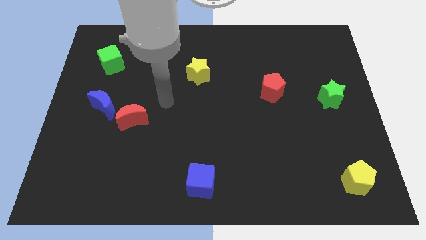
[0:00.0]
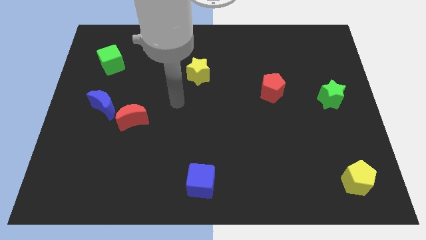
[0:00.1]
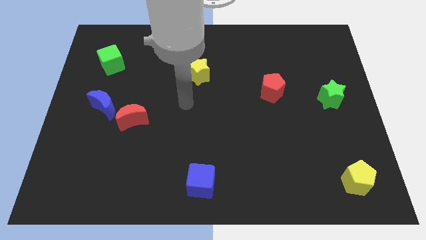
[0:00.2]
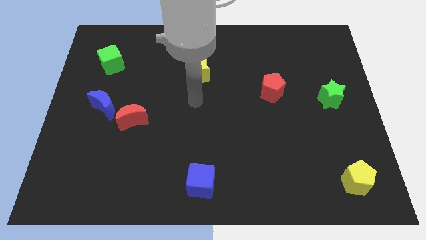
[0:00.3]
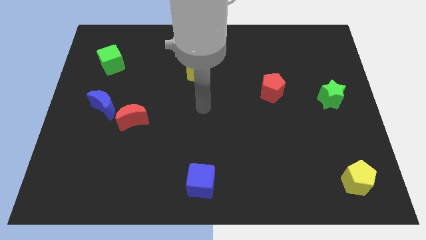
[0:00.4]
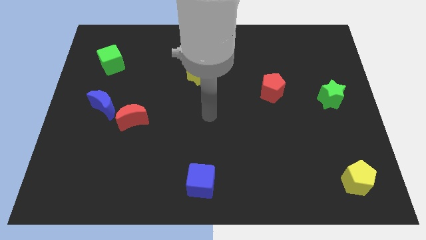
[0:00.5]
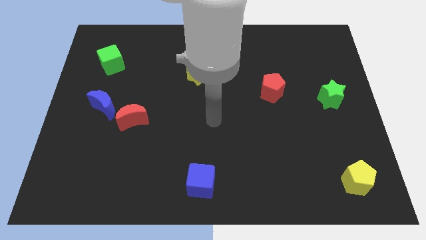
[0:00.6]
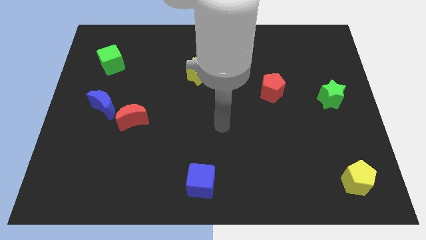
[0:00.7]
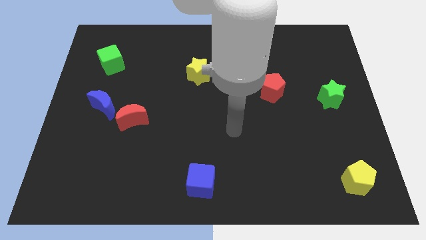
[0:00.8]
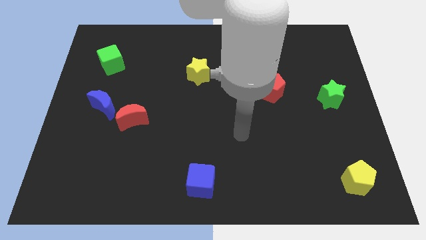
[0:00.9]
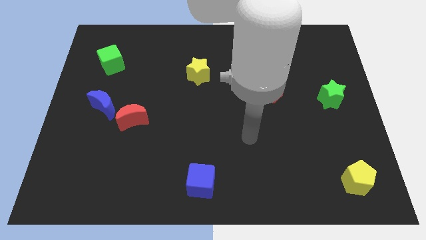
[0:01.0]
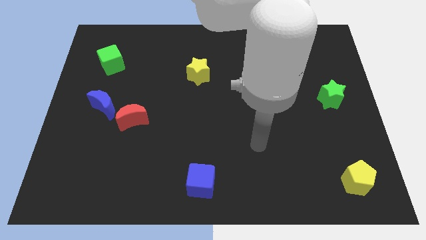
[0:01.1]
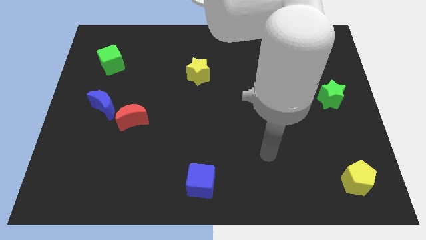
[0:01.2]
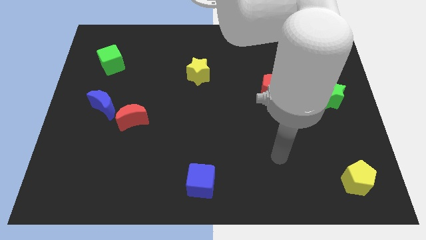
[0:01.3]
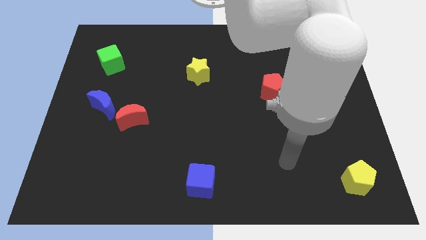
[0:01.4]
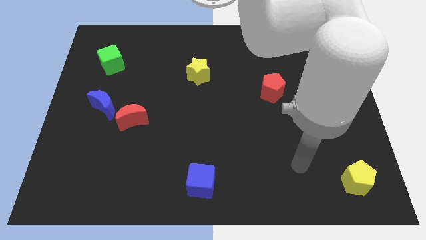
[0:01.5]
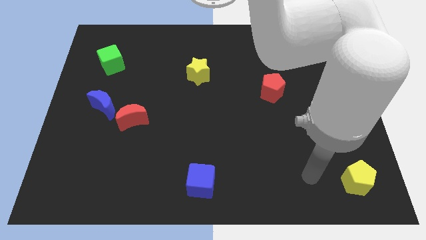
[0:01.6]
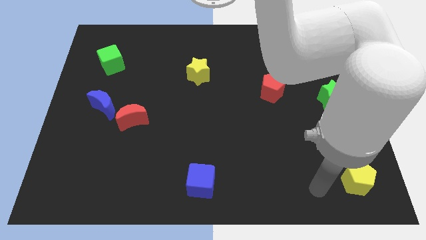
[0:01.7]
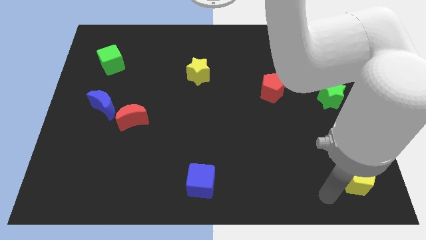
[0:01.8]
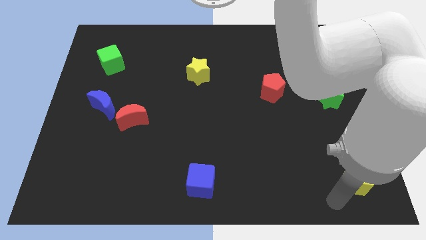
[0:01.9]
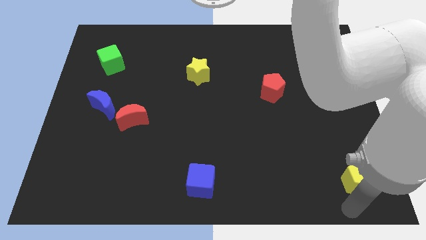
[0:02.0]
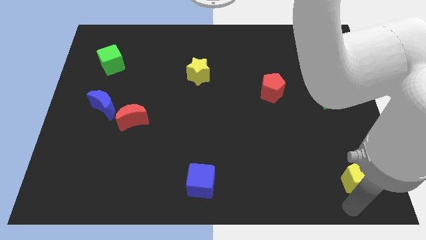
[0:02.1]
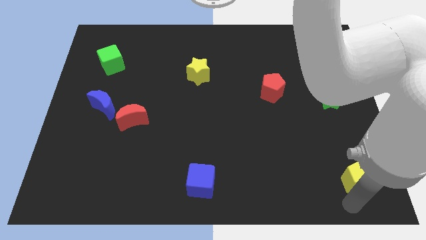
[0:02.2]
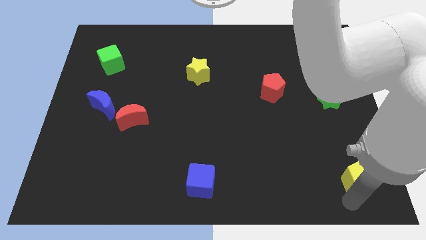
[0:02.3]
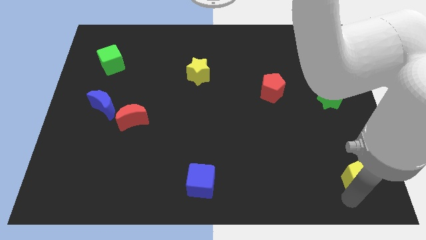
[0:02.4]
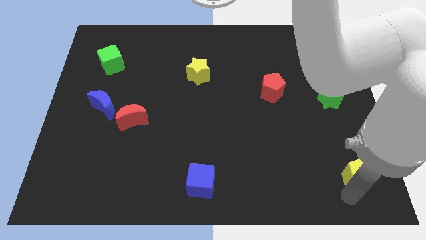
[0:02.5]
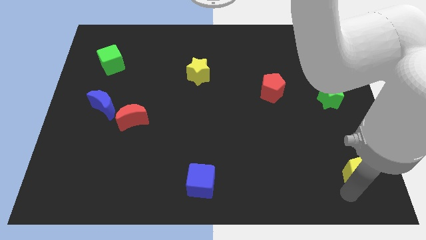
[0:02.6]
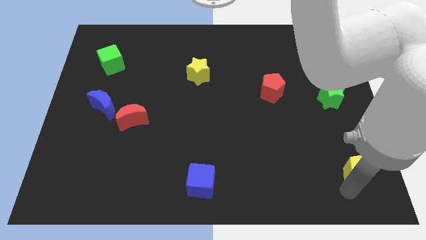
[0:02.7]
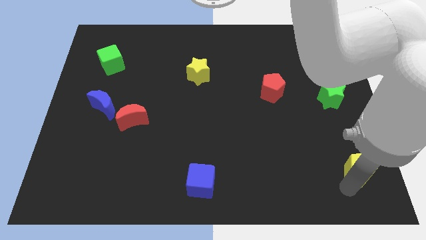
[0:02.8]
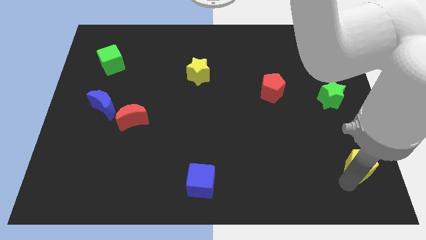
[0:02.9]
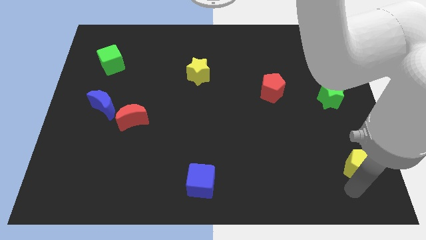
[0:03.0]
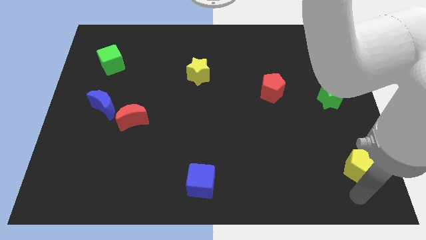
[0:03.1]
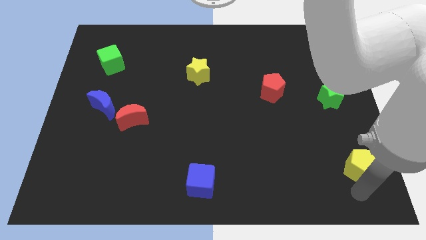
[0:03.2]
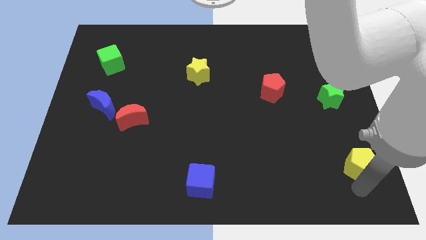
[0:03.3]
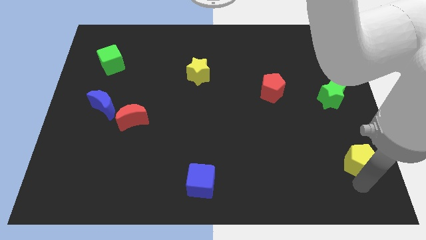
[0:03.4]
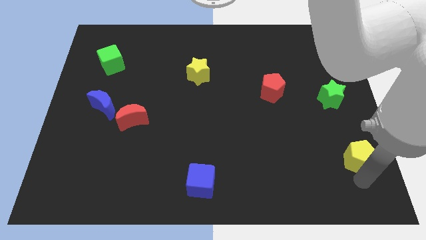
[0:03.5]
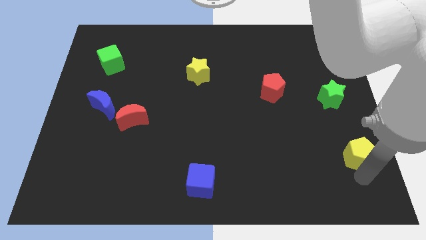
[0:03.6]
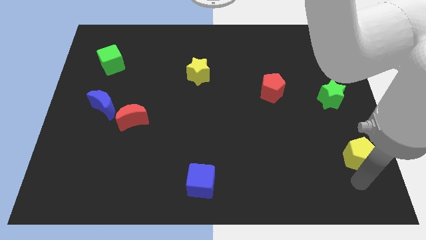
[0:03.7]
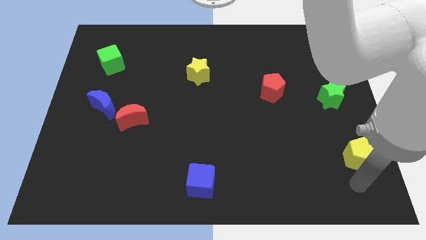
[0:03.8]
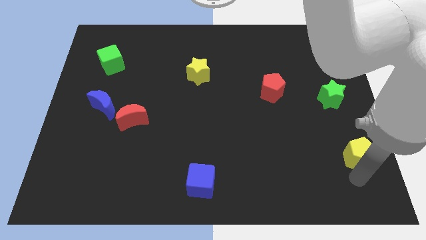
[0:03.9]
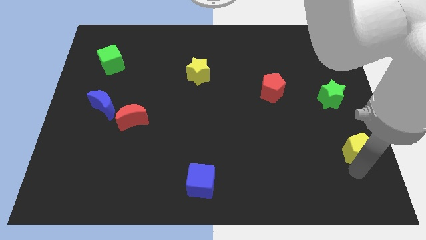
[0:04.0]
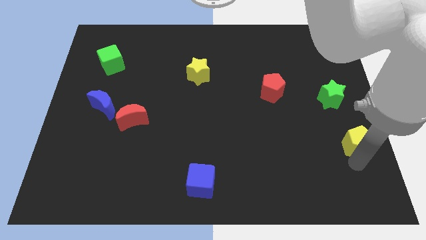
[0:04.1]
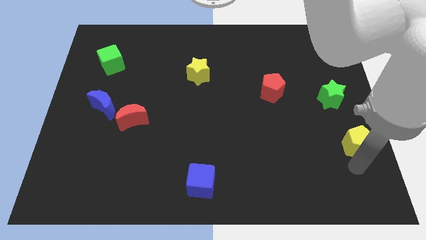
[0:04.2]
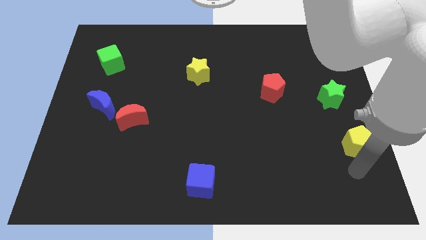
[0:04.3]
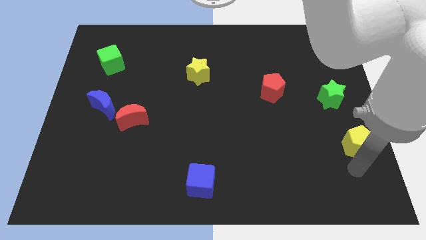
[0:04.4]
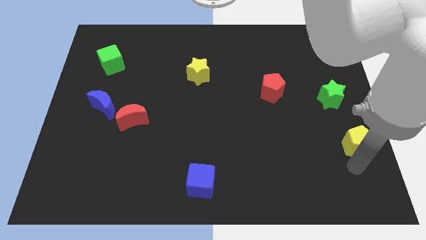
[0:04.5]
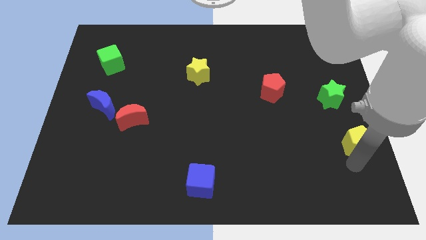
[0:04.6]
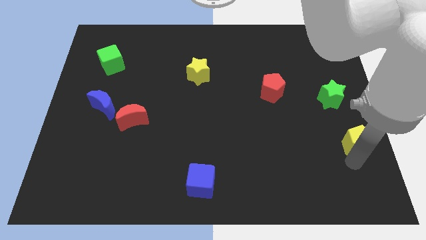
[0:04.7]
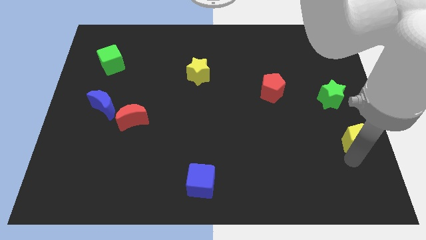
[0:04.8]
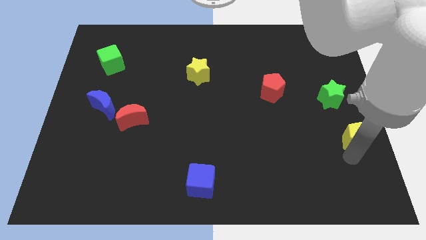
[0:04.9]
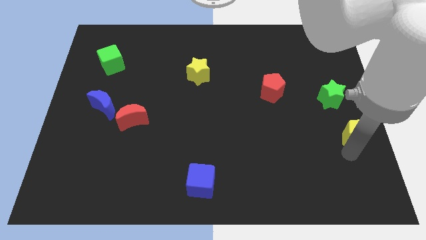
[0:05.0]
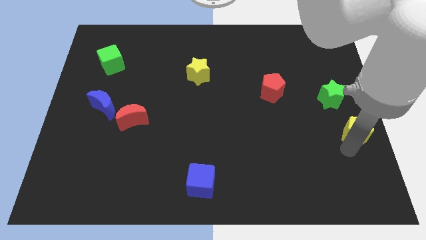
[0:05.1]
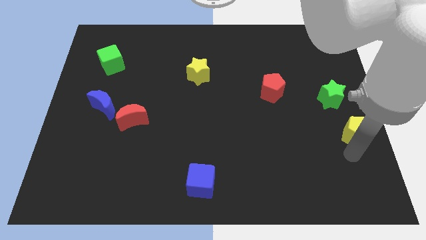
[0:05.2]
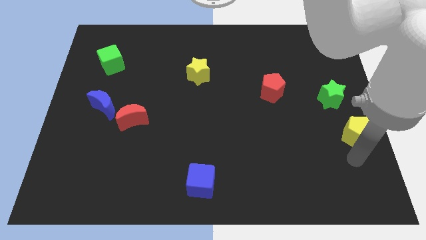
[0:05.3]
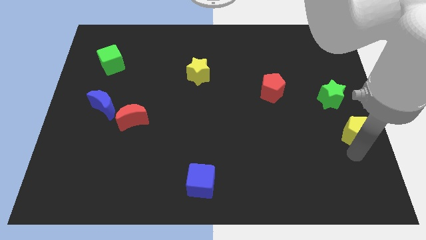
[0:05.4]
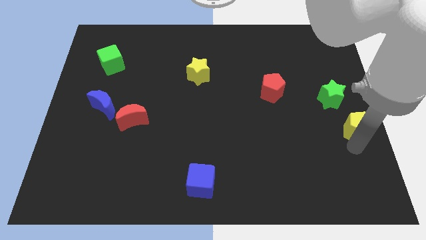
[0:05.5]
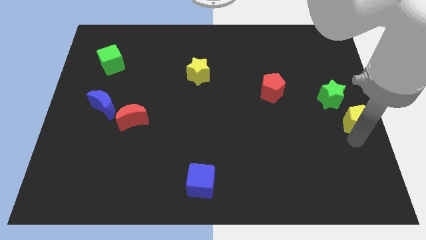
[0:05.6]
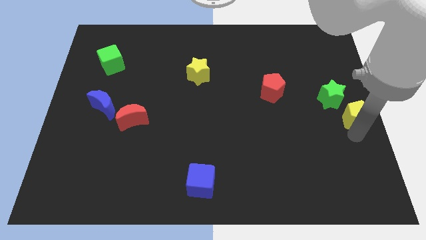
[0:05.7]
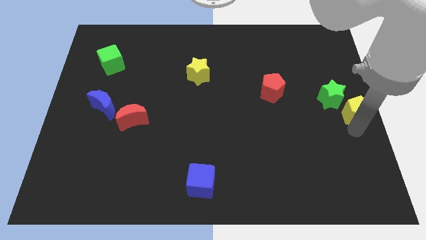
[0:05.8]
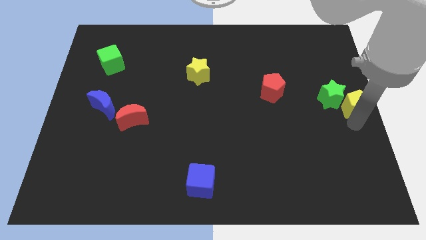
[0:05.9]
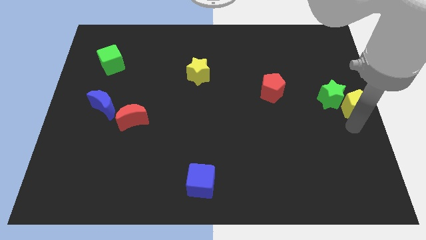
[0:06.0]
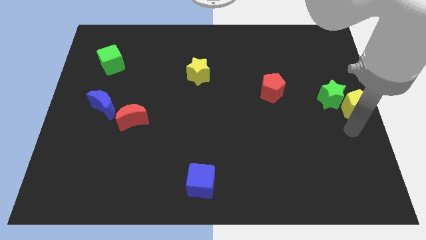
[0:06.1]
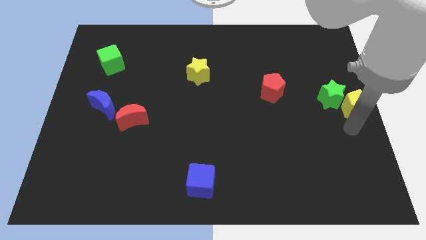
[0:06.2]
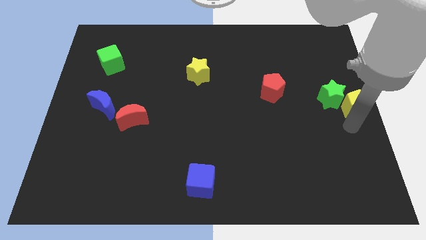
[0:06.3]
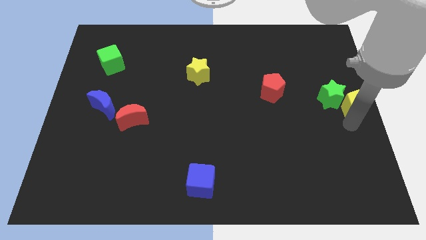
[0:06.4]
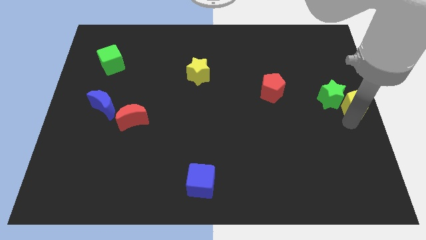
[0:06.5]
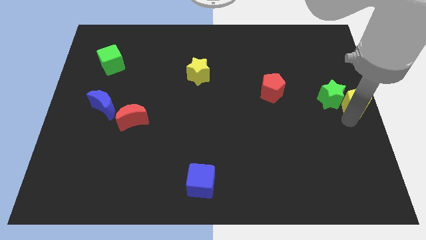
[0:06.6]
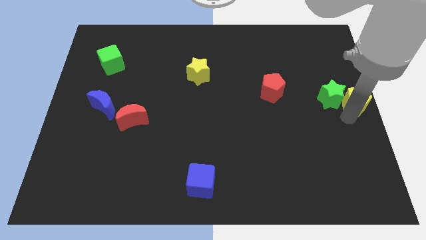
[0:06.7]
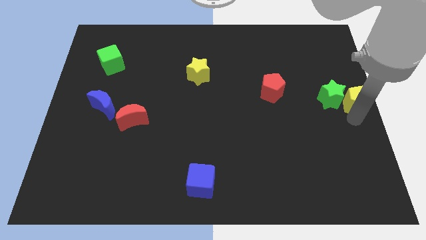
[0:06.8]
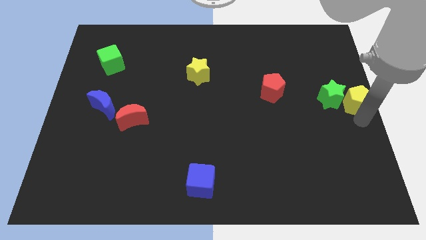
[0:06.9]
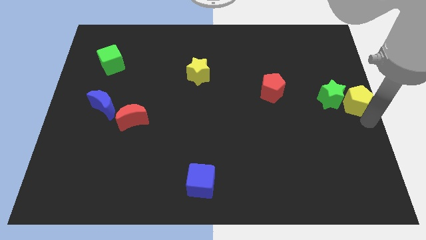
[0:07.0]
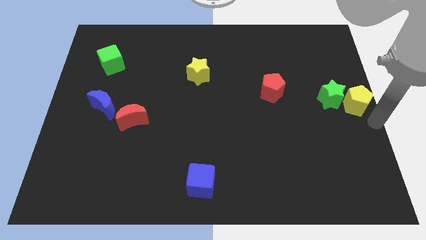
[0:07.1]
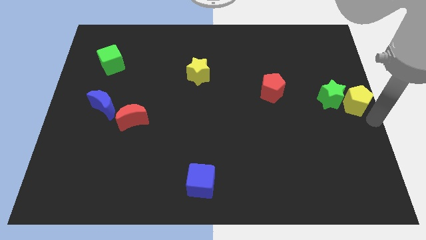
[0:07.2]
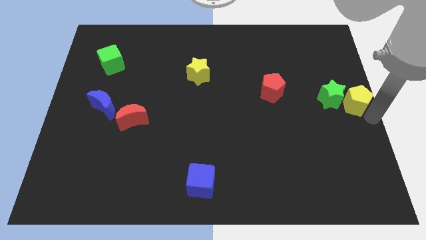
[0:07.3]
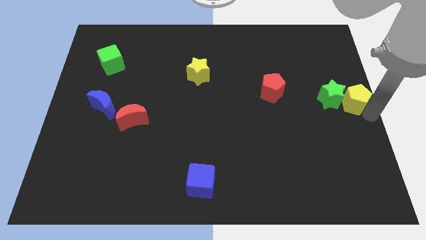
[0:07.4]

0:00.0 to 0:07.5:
move the yellow pentagon upwards

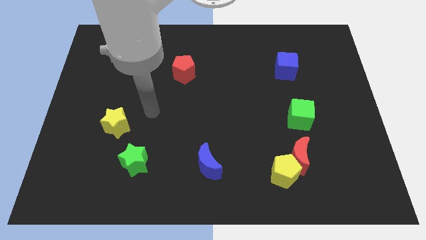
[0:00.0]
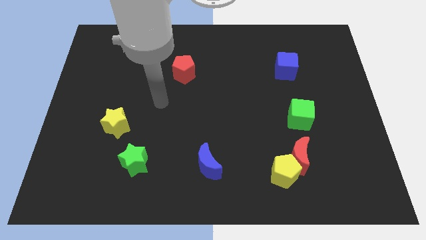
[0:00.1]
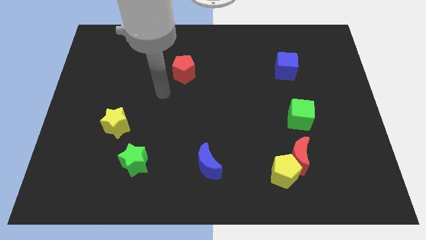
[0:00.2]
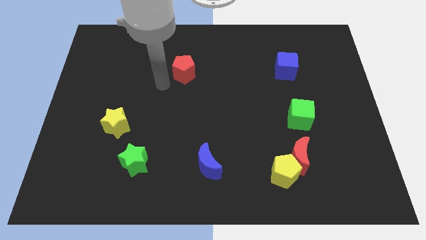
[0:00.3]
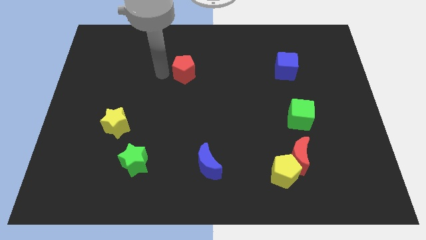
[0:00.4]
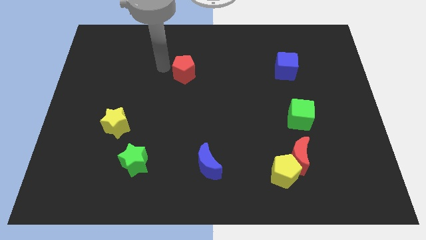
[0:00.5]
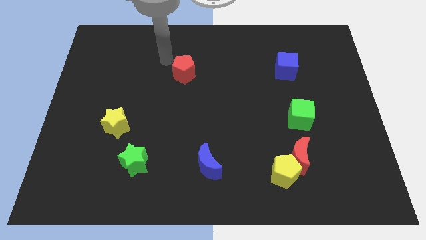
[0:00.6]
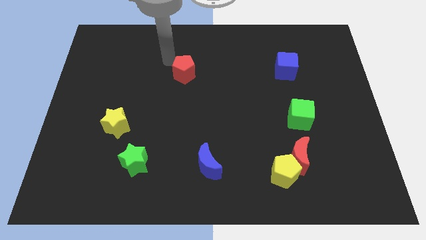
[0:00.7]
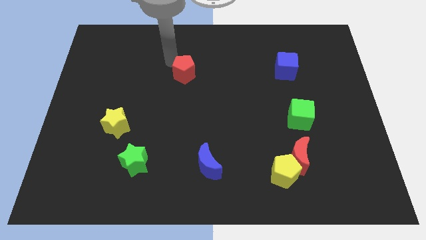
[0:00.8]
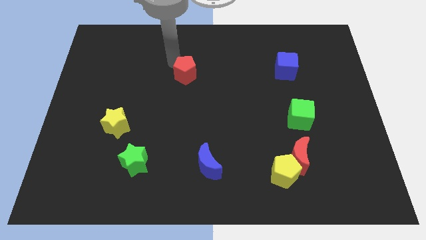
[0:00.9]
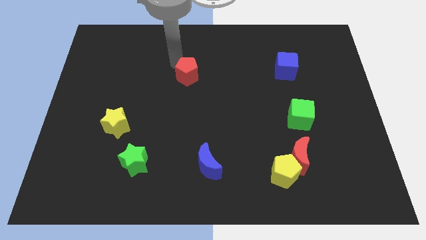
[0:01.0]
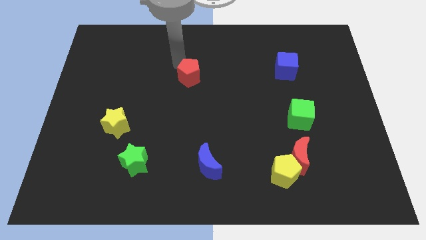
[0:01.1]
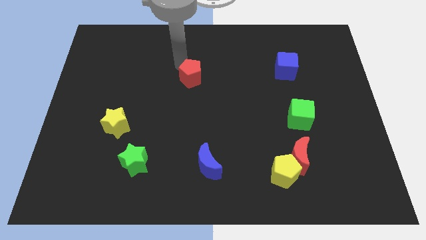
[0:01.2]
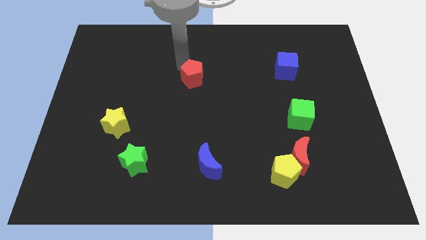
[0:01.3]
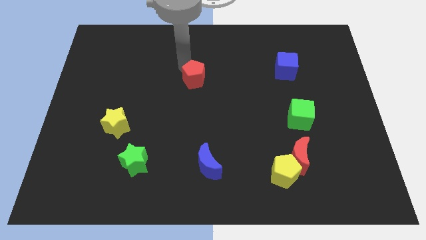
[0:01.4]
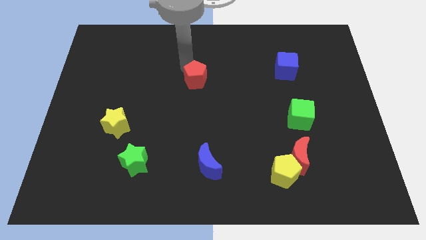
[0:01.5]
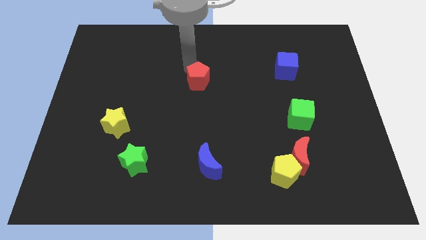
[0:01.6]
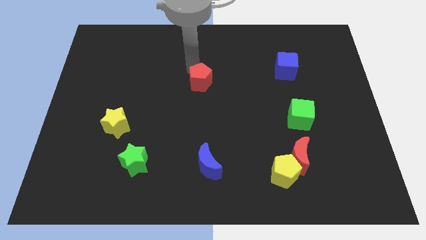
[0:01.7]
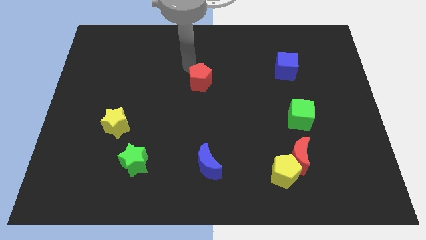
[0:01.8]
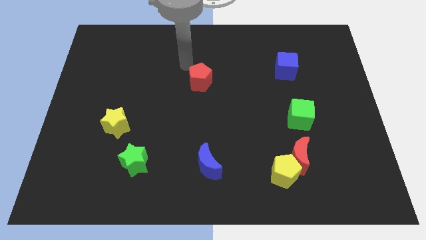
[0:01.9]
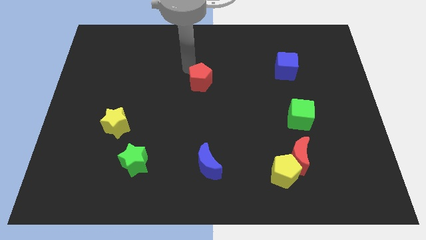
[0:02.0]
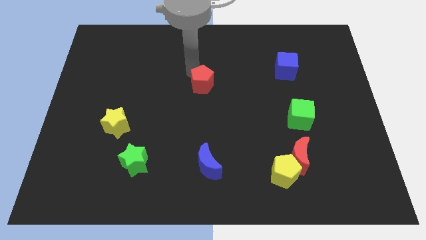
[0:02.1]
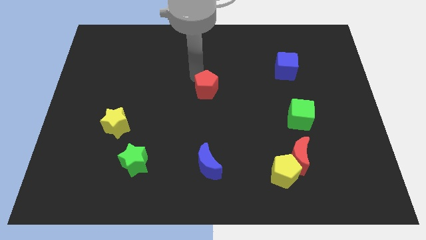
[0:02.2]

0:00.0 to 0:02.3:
slightly push the red pentagon downwards and right diagonally
